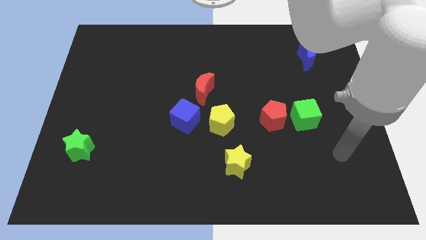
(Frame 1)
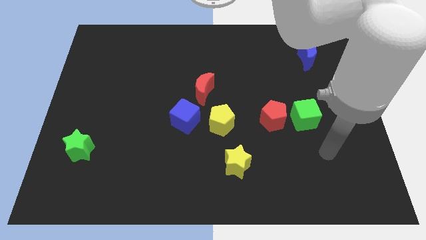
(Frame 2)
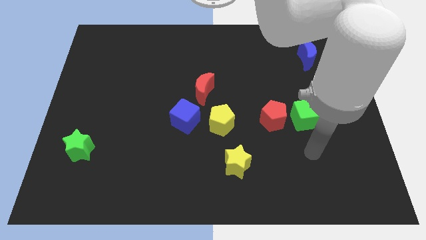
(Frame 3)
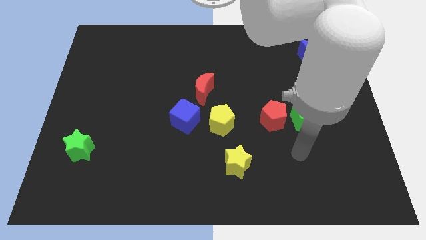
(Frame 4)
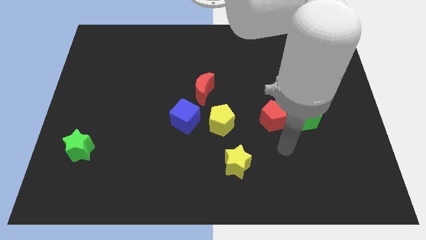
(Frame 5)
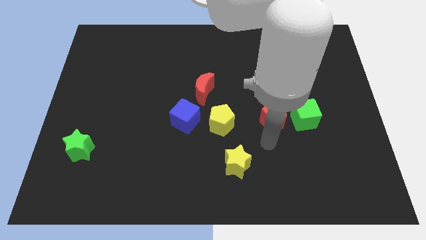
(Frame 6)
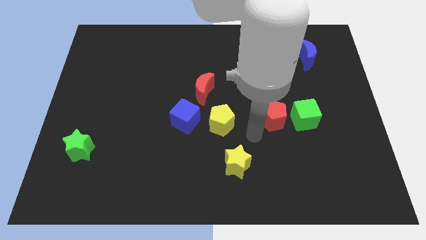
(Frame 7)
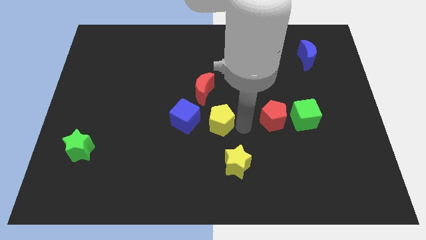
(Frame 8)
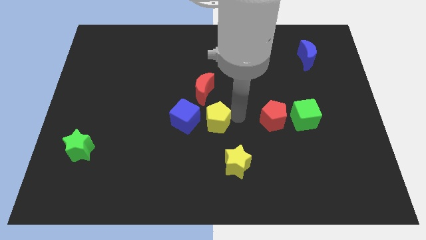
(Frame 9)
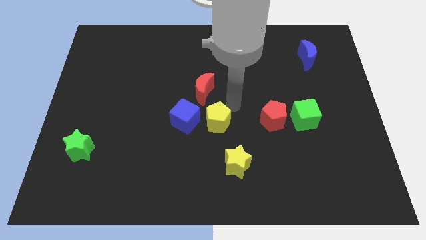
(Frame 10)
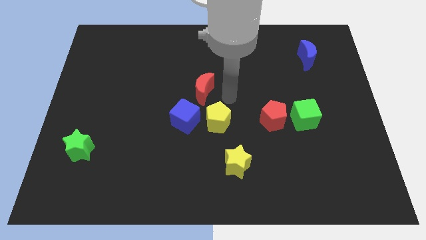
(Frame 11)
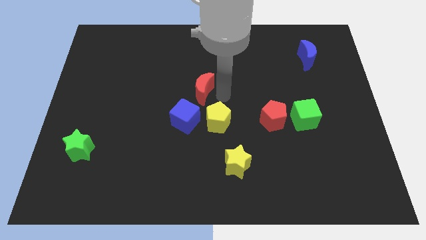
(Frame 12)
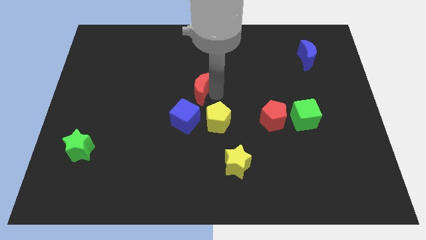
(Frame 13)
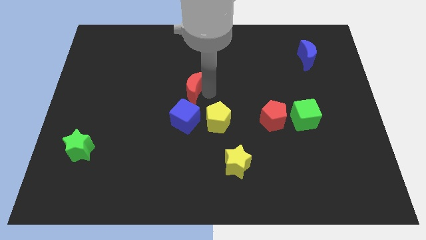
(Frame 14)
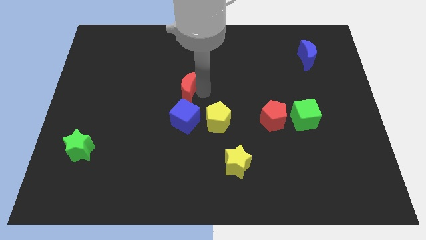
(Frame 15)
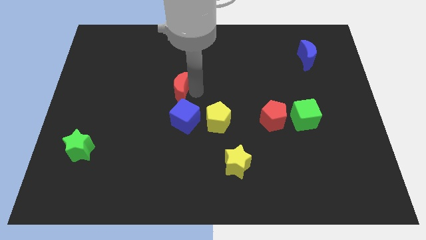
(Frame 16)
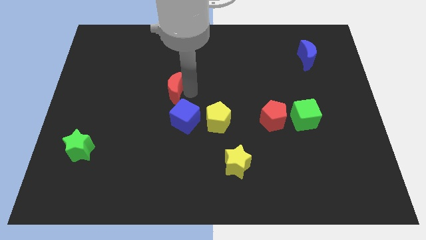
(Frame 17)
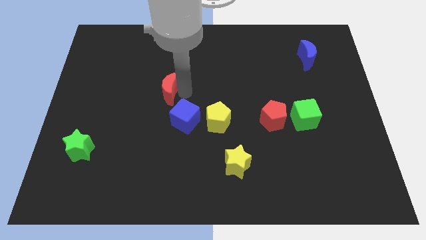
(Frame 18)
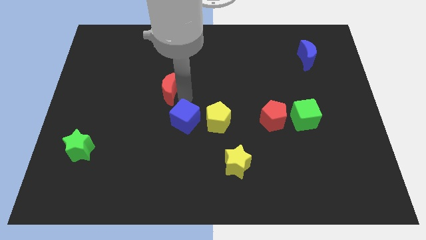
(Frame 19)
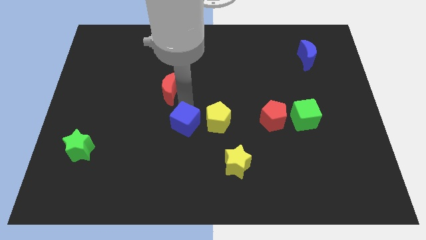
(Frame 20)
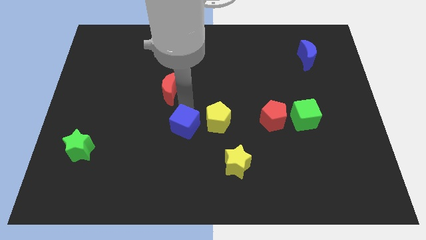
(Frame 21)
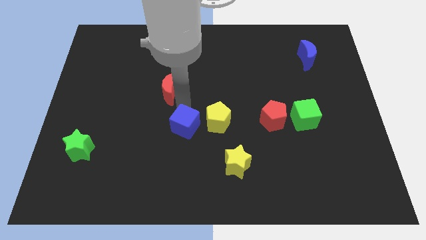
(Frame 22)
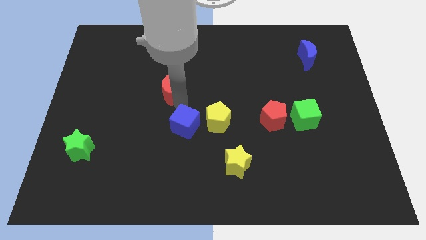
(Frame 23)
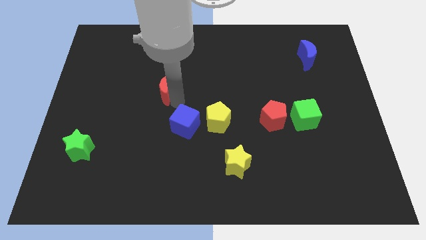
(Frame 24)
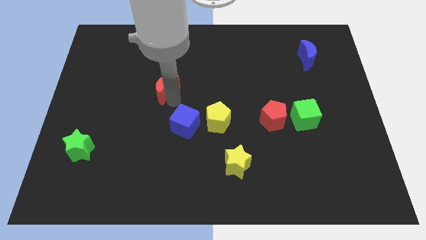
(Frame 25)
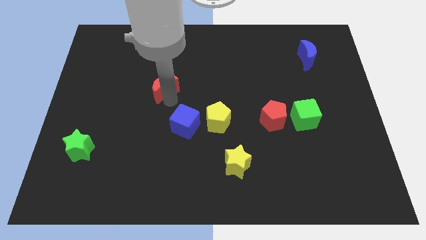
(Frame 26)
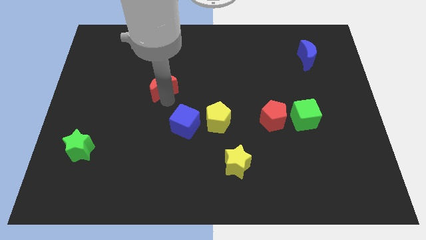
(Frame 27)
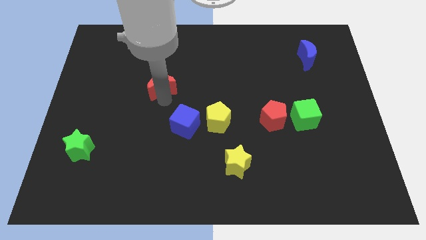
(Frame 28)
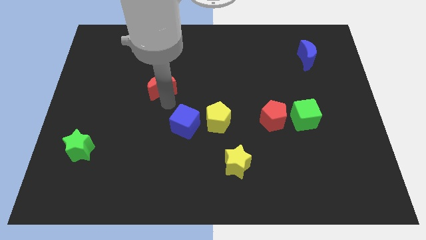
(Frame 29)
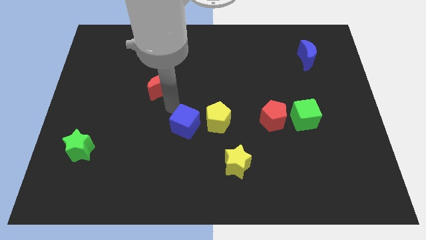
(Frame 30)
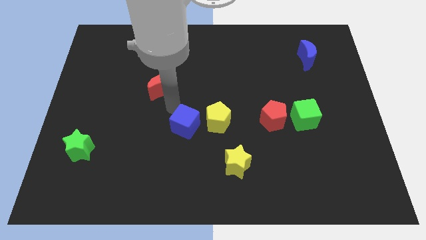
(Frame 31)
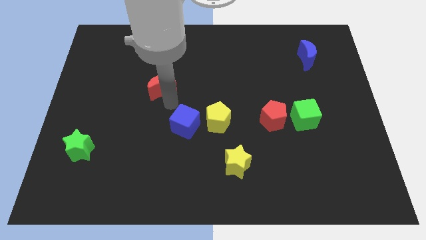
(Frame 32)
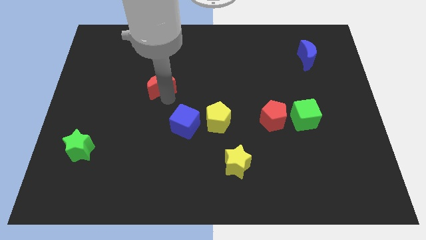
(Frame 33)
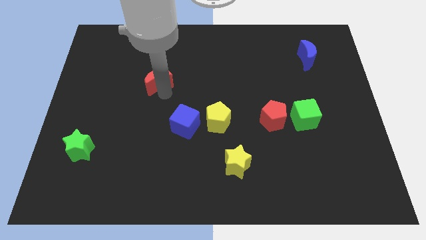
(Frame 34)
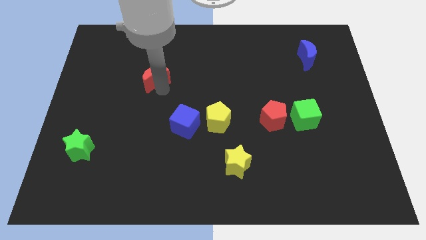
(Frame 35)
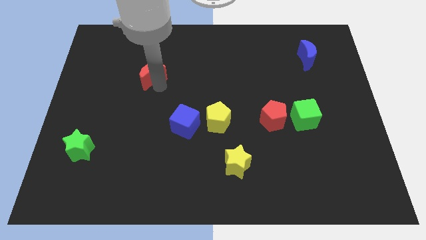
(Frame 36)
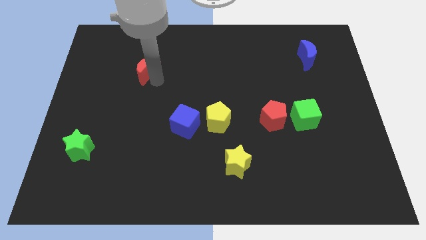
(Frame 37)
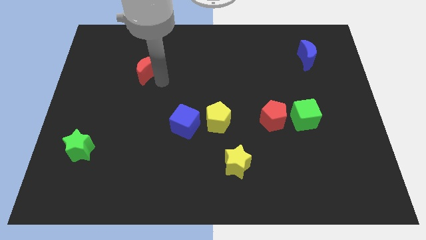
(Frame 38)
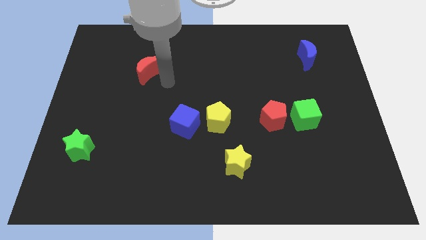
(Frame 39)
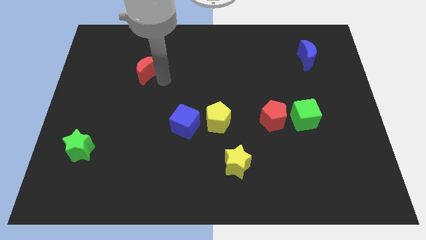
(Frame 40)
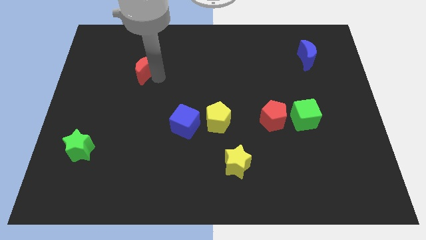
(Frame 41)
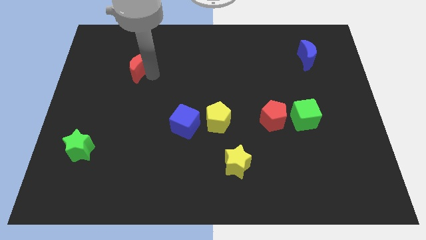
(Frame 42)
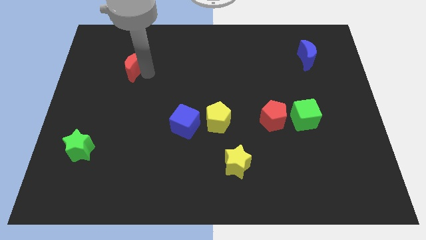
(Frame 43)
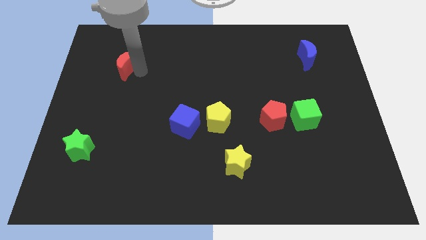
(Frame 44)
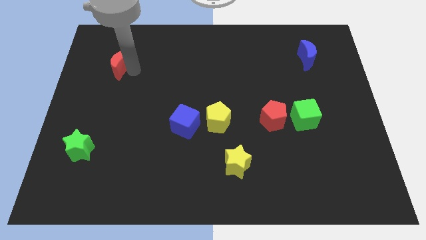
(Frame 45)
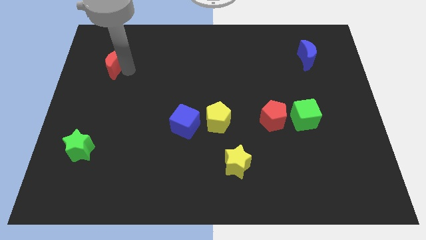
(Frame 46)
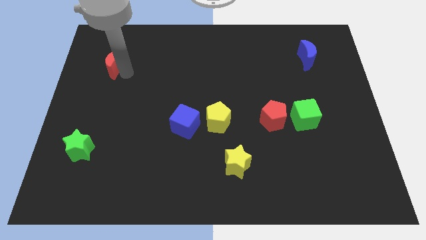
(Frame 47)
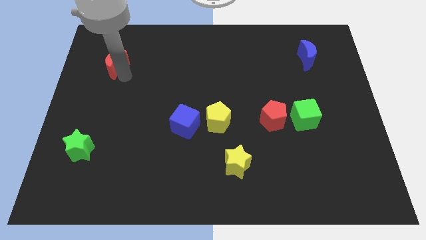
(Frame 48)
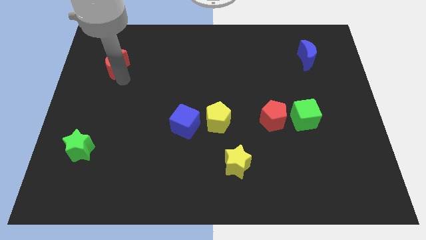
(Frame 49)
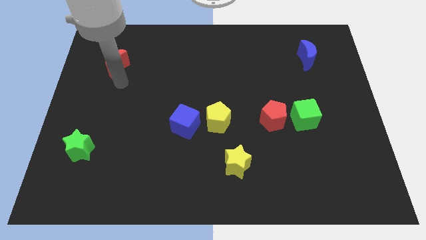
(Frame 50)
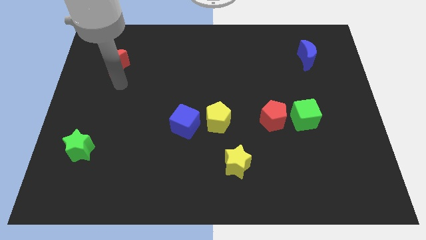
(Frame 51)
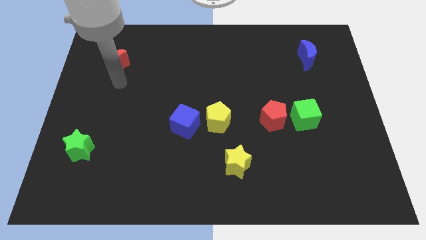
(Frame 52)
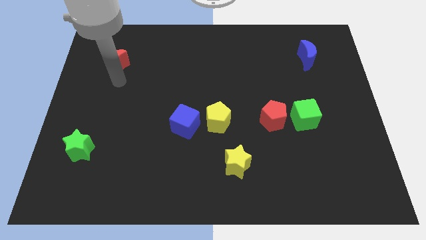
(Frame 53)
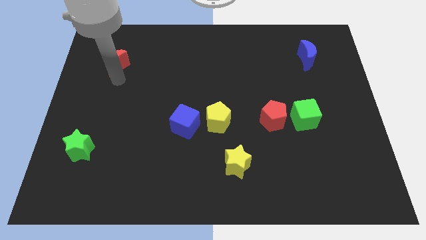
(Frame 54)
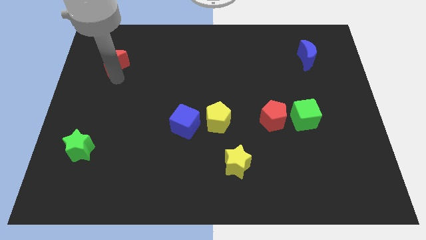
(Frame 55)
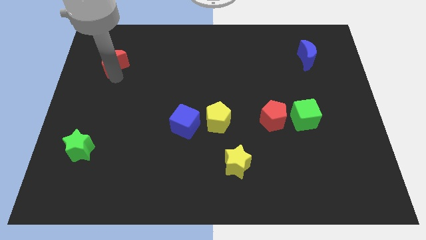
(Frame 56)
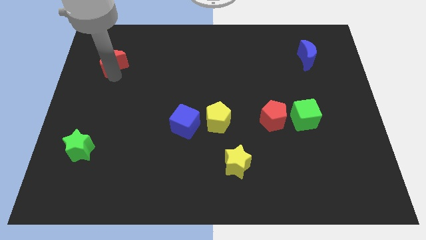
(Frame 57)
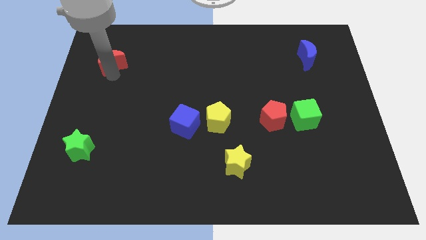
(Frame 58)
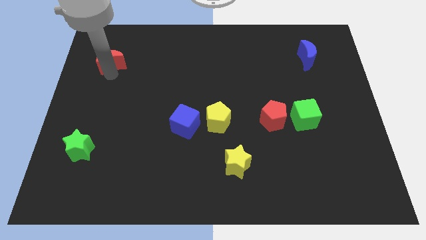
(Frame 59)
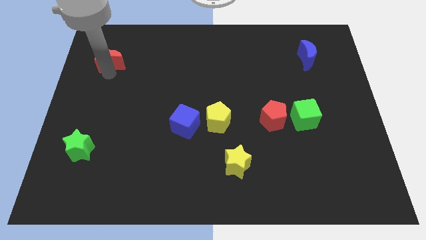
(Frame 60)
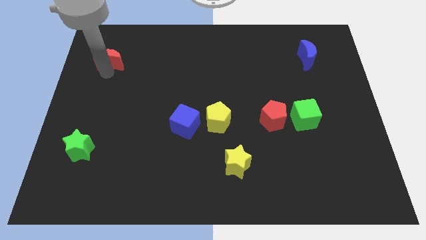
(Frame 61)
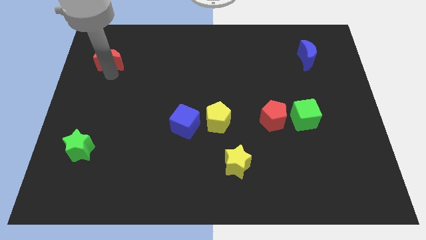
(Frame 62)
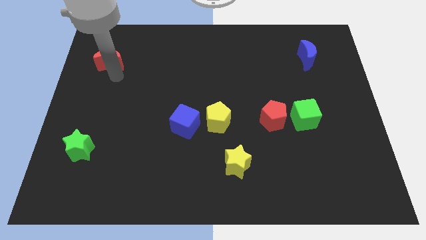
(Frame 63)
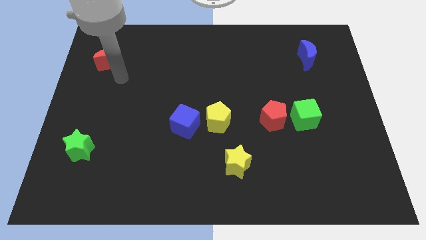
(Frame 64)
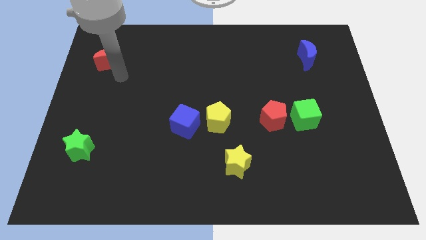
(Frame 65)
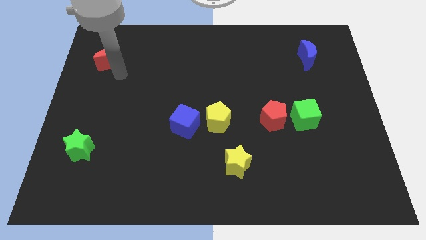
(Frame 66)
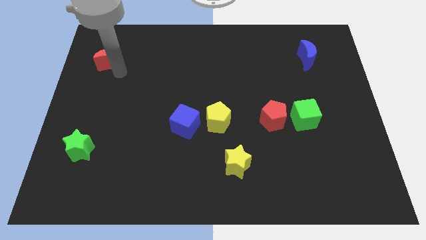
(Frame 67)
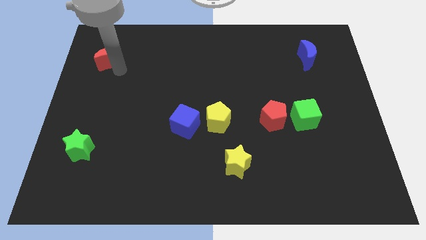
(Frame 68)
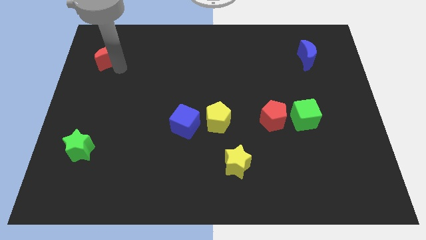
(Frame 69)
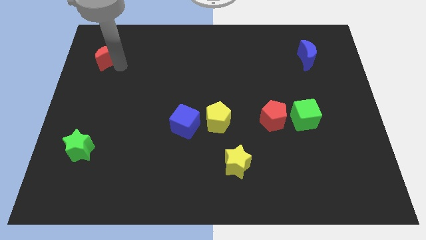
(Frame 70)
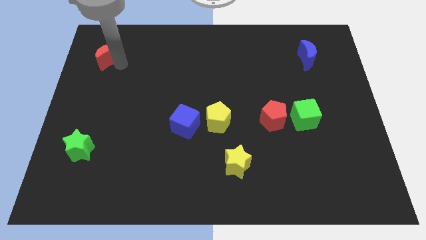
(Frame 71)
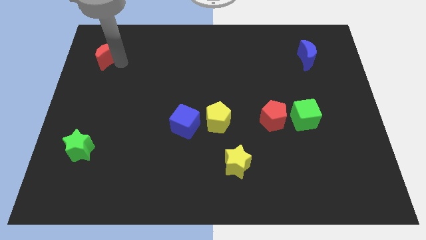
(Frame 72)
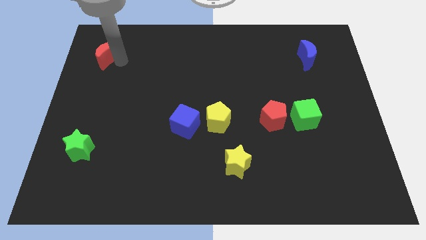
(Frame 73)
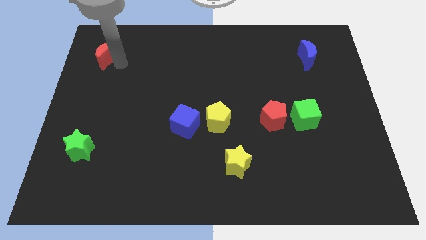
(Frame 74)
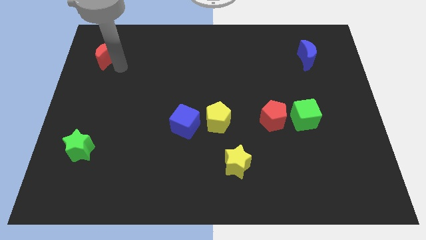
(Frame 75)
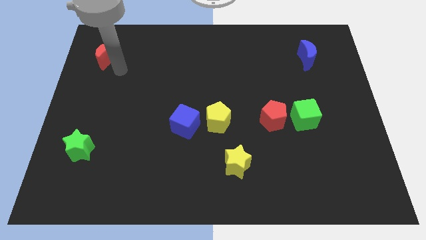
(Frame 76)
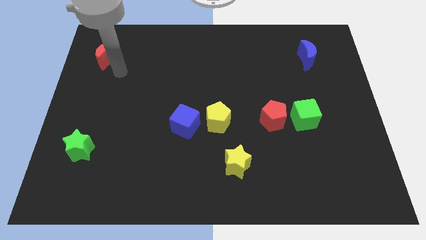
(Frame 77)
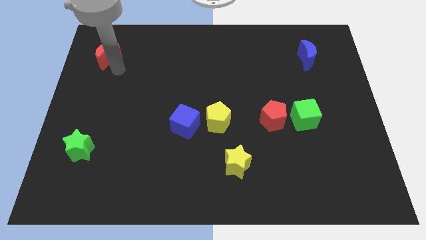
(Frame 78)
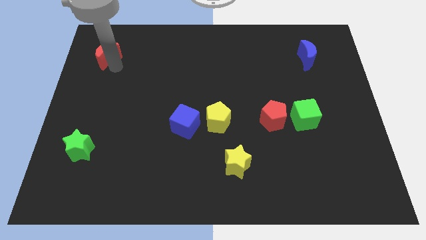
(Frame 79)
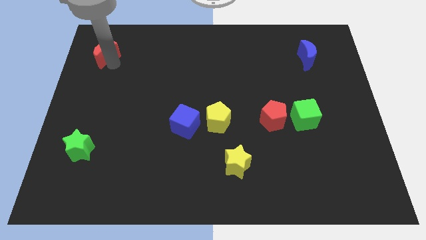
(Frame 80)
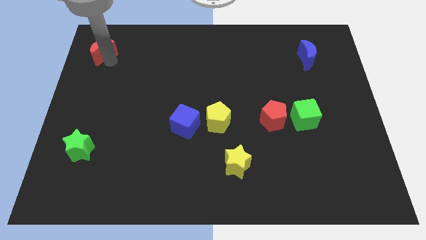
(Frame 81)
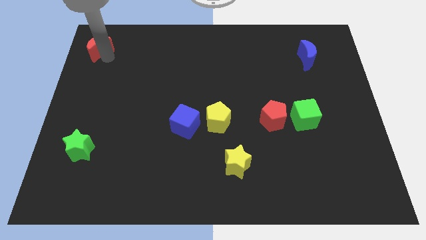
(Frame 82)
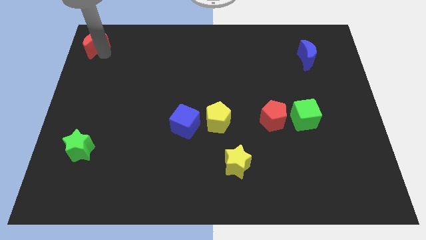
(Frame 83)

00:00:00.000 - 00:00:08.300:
put the red moon to the top left
